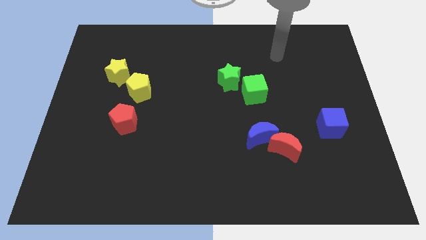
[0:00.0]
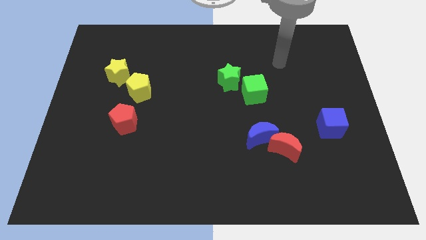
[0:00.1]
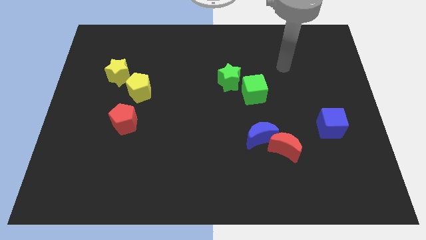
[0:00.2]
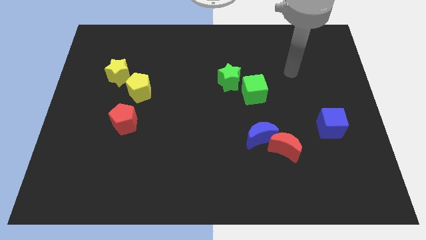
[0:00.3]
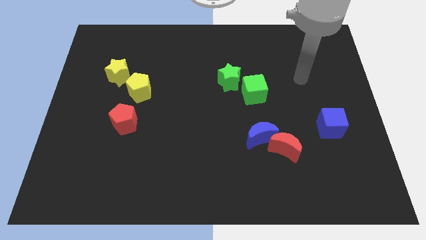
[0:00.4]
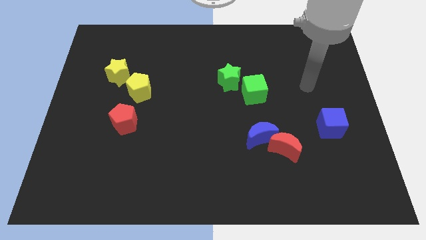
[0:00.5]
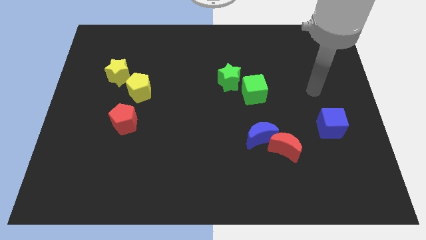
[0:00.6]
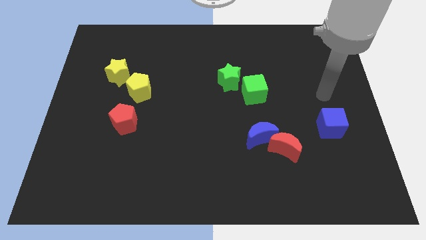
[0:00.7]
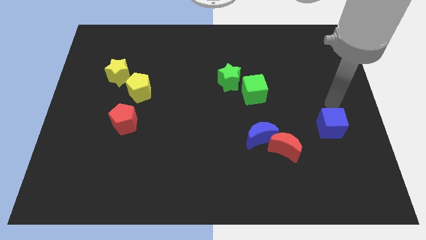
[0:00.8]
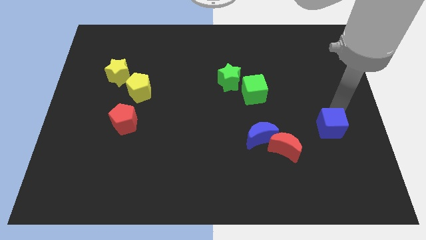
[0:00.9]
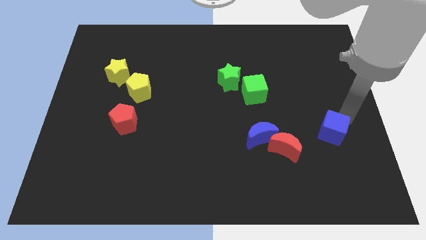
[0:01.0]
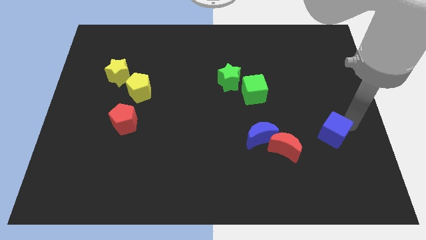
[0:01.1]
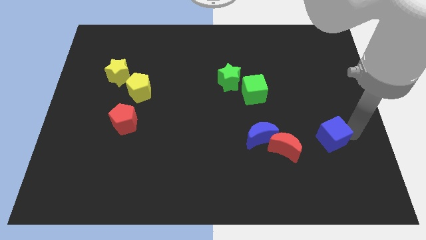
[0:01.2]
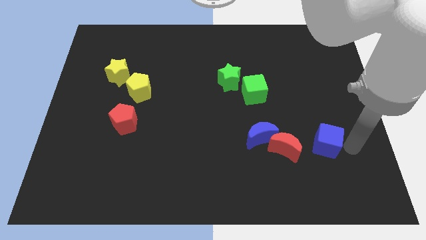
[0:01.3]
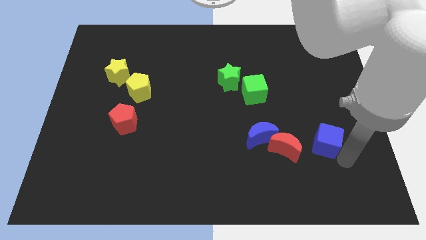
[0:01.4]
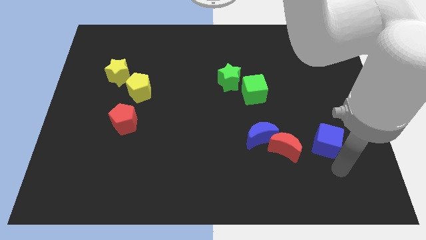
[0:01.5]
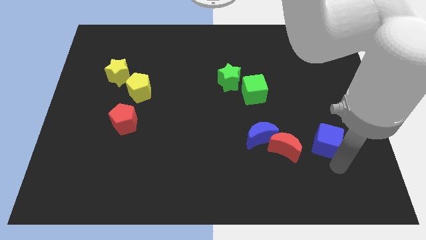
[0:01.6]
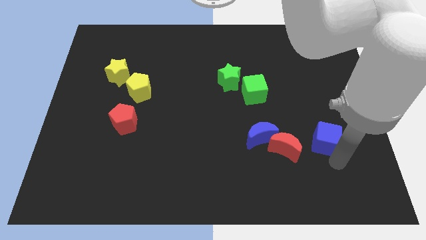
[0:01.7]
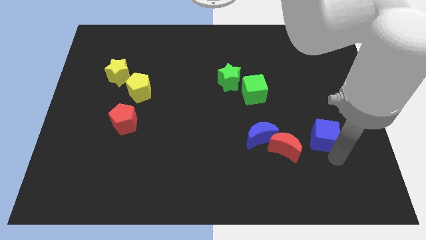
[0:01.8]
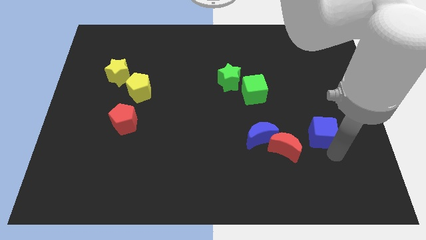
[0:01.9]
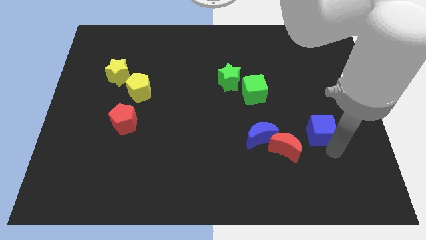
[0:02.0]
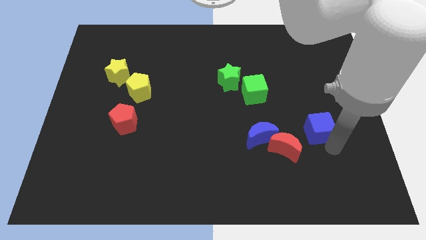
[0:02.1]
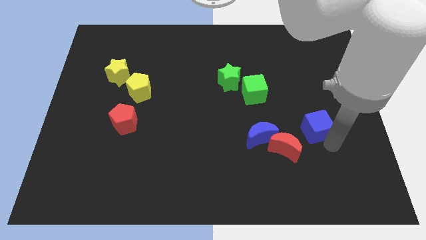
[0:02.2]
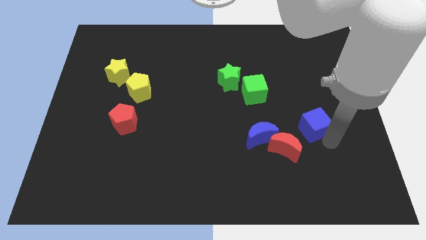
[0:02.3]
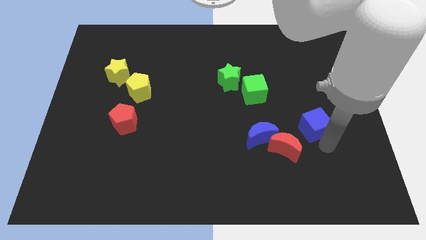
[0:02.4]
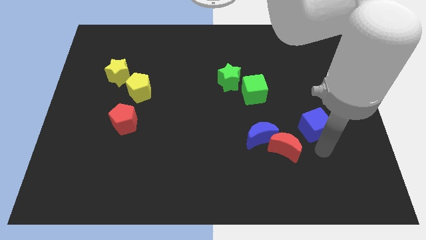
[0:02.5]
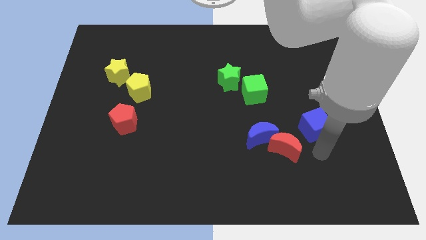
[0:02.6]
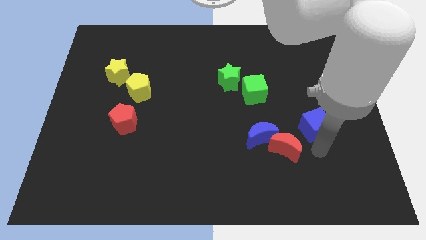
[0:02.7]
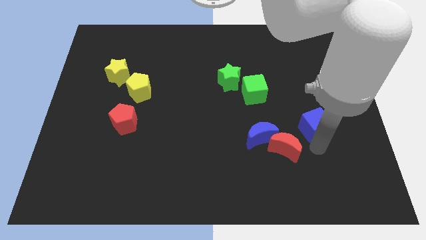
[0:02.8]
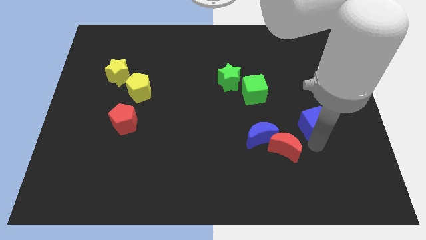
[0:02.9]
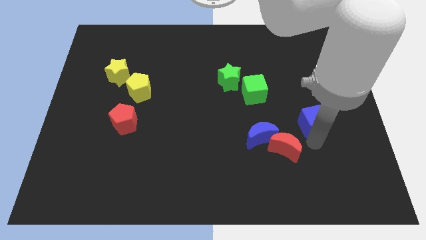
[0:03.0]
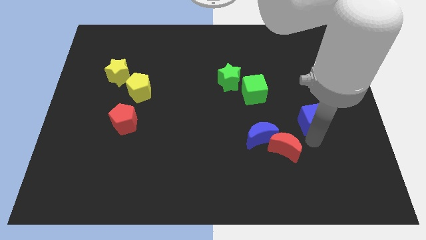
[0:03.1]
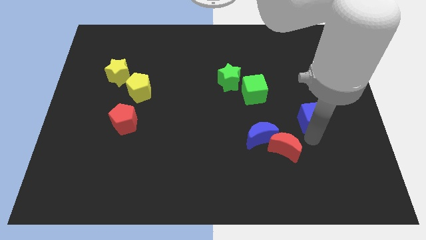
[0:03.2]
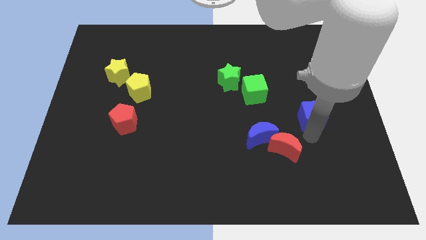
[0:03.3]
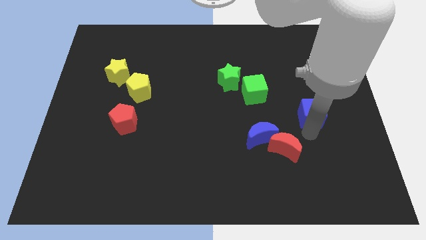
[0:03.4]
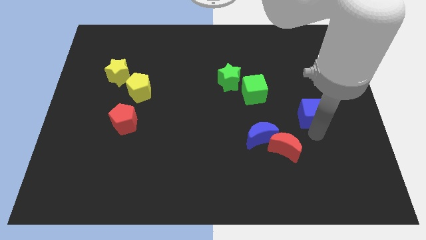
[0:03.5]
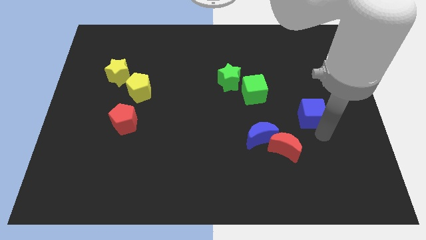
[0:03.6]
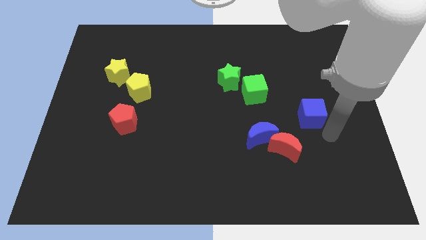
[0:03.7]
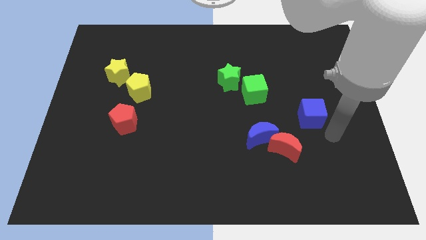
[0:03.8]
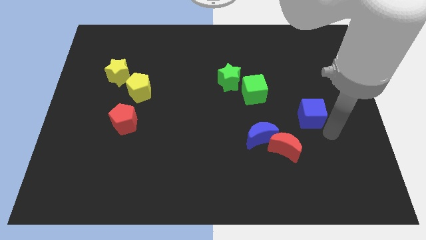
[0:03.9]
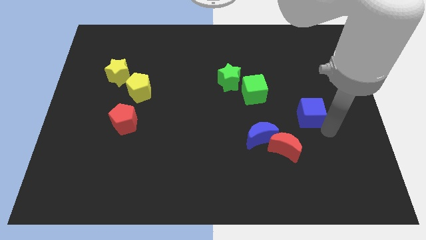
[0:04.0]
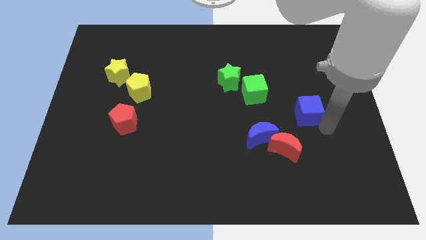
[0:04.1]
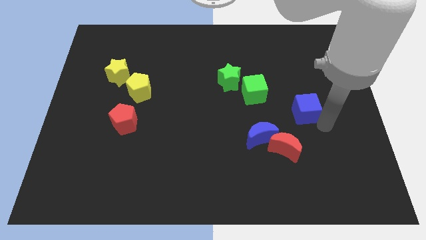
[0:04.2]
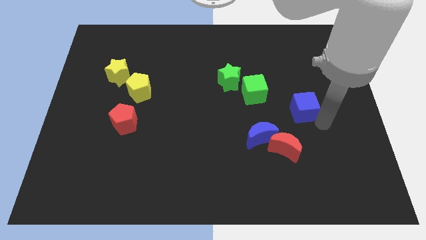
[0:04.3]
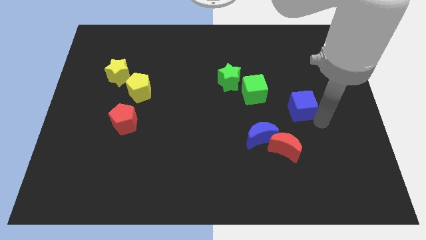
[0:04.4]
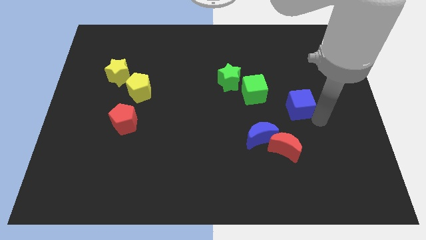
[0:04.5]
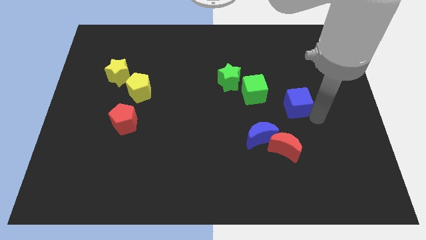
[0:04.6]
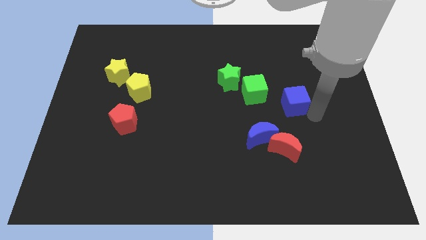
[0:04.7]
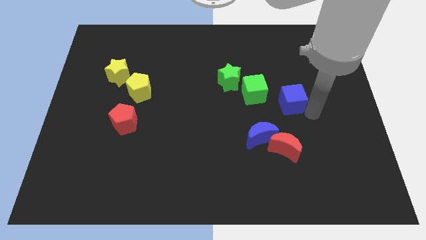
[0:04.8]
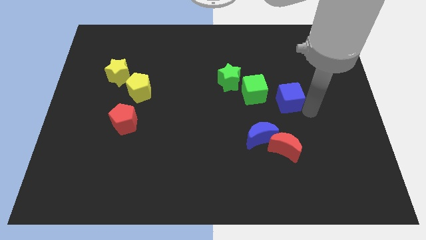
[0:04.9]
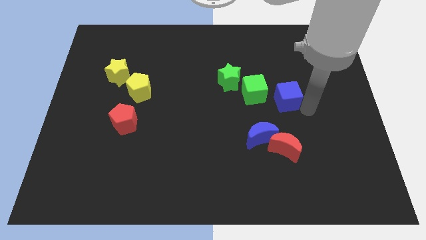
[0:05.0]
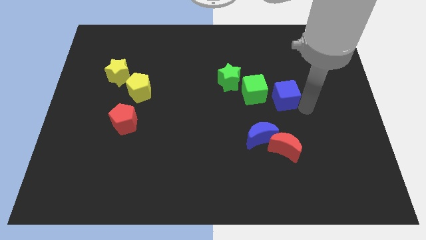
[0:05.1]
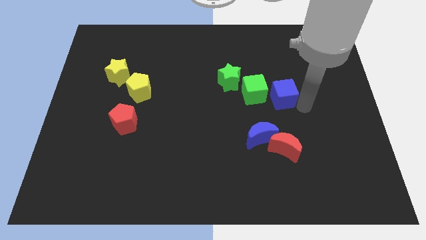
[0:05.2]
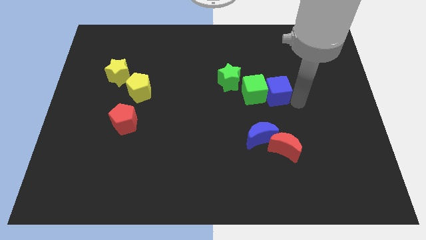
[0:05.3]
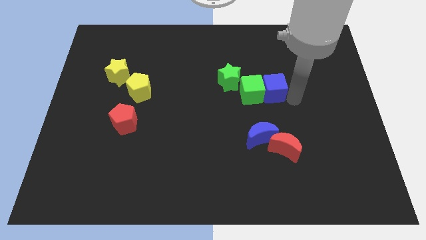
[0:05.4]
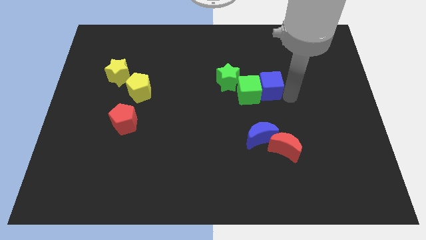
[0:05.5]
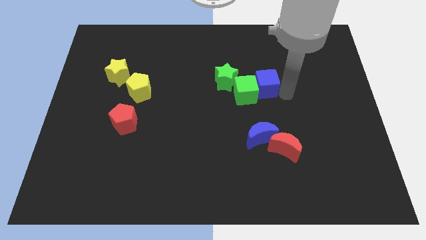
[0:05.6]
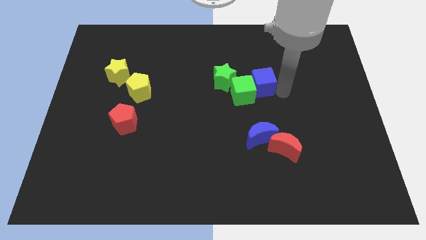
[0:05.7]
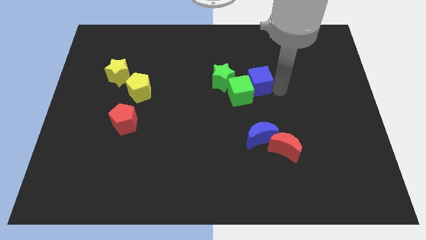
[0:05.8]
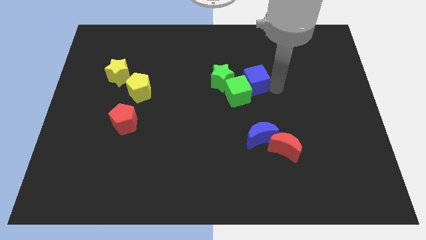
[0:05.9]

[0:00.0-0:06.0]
slide the blue cube above the green cube

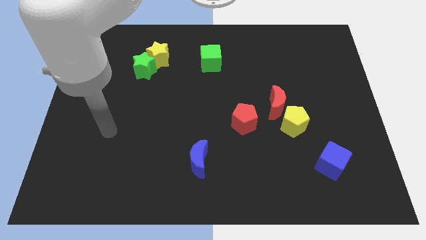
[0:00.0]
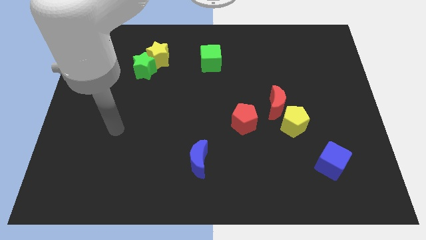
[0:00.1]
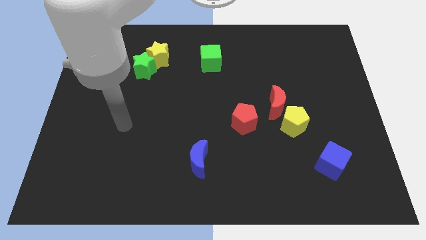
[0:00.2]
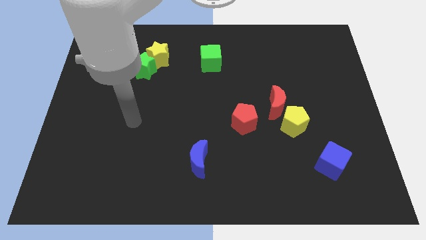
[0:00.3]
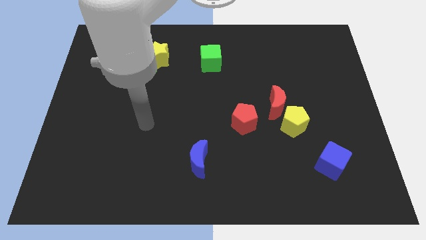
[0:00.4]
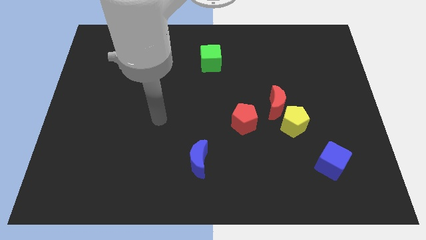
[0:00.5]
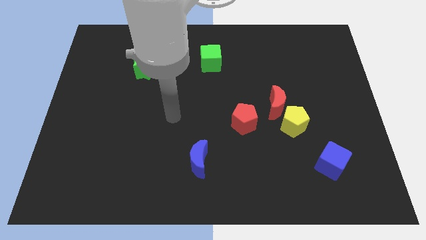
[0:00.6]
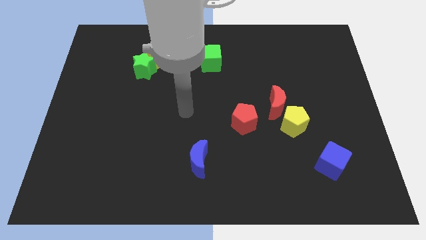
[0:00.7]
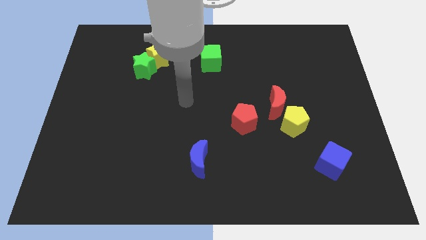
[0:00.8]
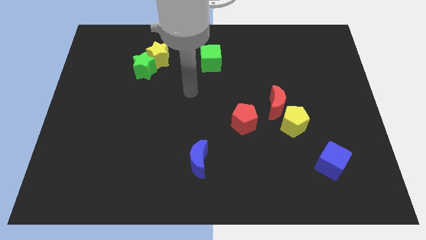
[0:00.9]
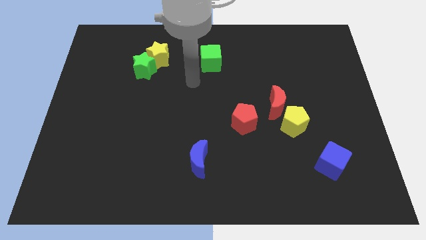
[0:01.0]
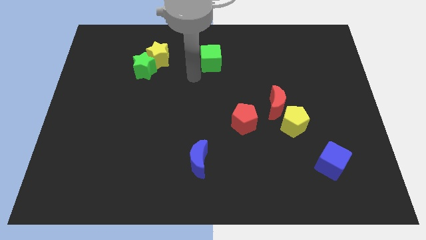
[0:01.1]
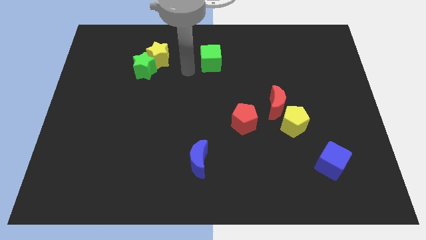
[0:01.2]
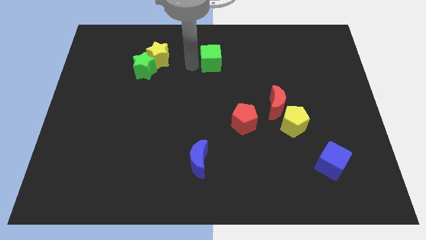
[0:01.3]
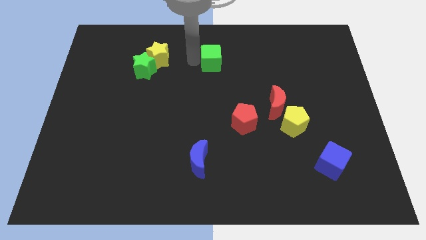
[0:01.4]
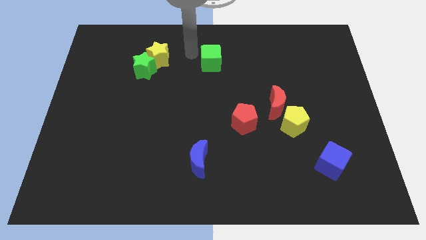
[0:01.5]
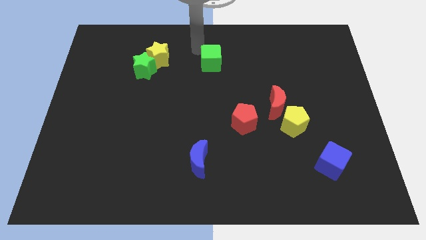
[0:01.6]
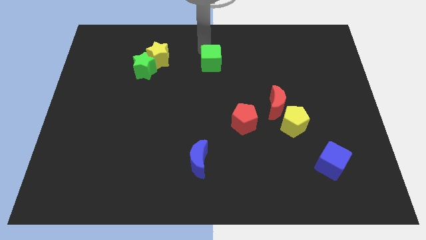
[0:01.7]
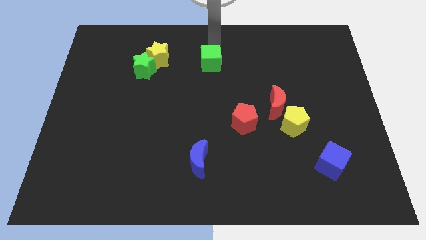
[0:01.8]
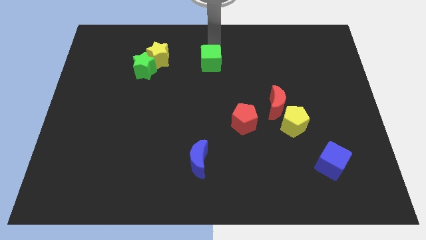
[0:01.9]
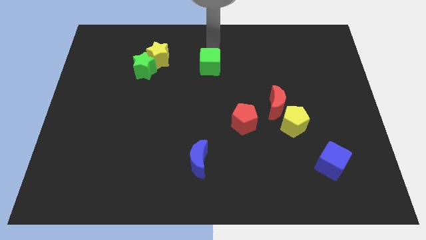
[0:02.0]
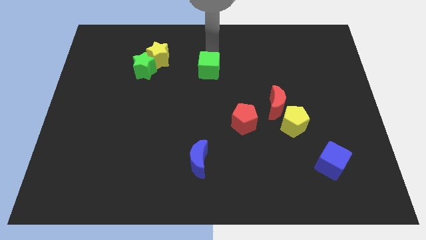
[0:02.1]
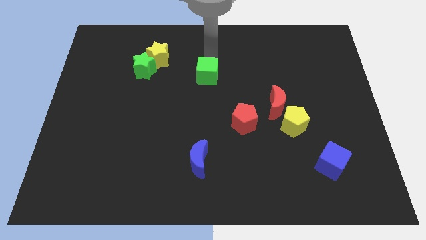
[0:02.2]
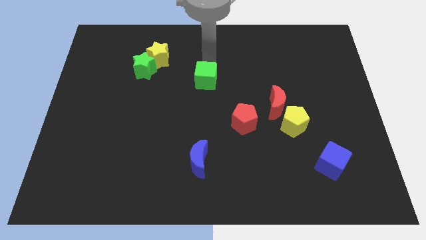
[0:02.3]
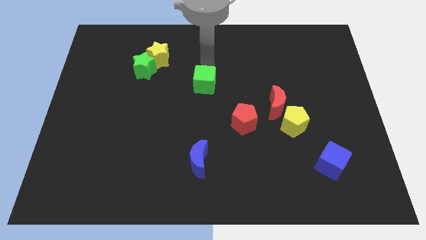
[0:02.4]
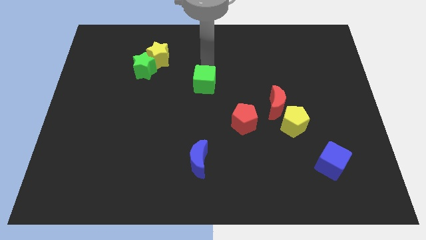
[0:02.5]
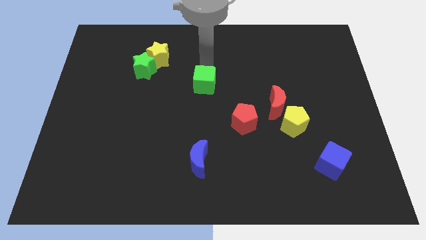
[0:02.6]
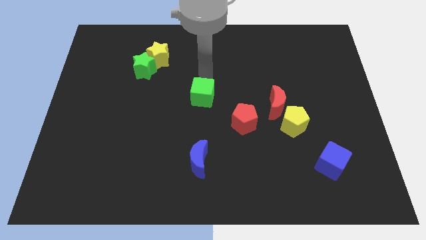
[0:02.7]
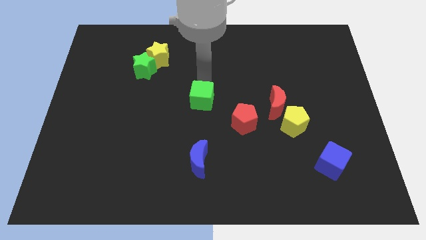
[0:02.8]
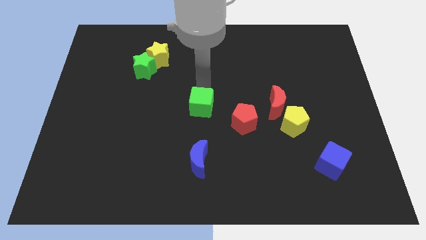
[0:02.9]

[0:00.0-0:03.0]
push the green cube above the blue moon
